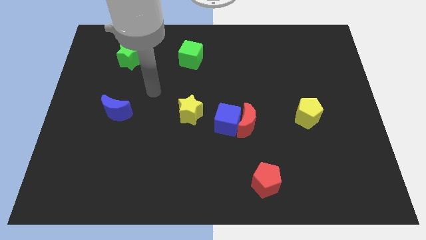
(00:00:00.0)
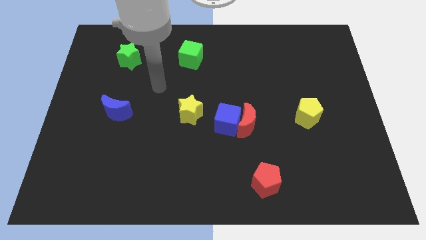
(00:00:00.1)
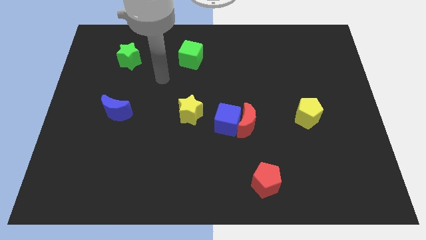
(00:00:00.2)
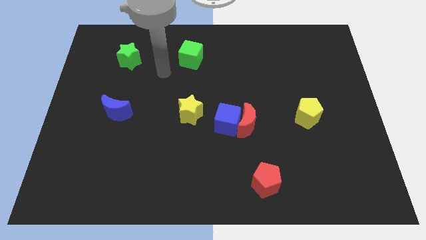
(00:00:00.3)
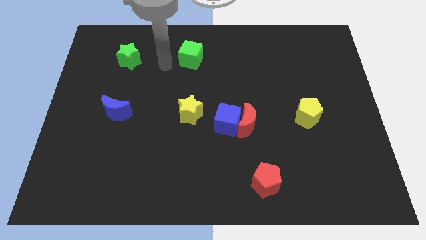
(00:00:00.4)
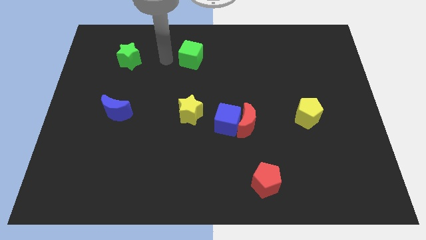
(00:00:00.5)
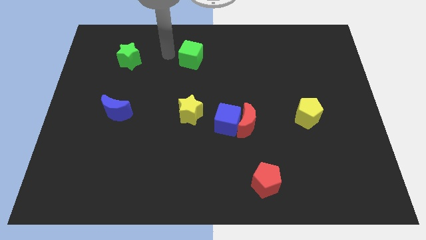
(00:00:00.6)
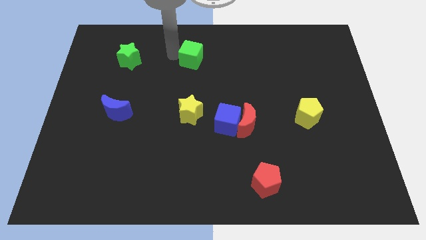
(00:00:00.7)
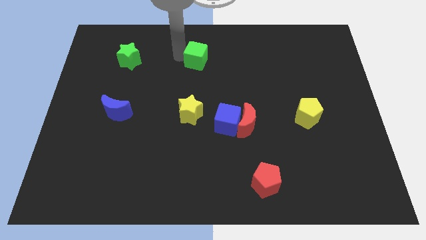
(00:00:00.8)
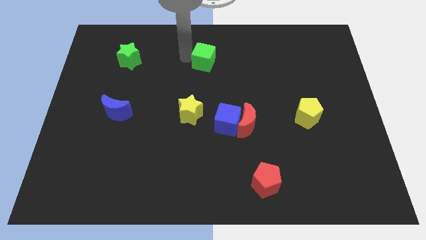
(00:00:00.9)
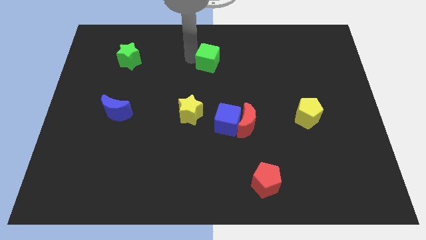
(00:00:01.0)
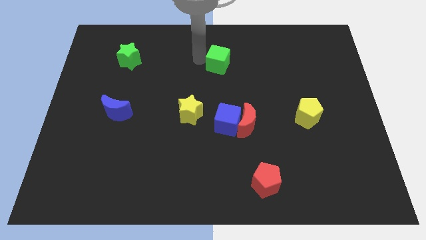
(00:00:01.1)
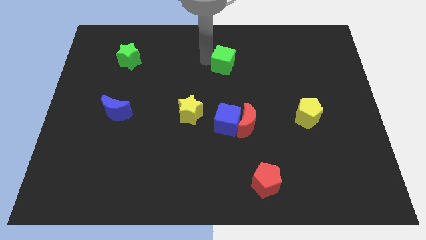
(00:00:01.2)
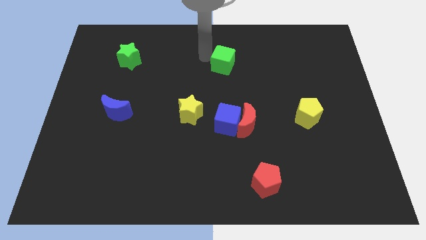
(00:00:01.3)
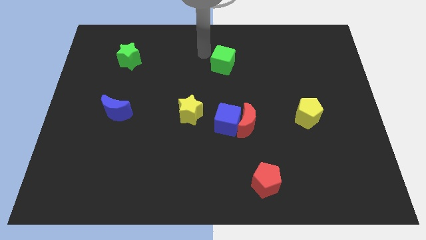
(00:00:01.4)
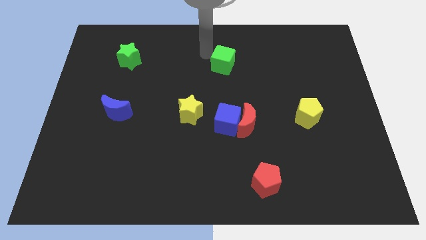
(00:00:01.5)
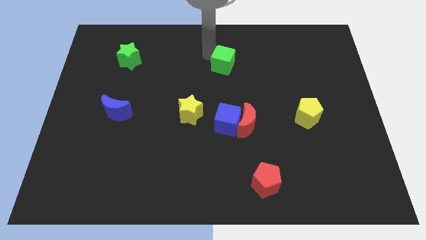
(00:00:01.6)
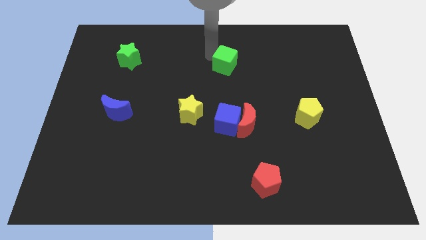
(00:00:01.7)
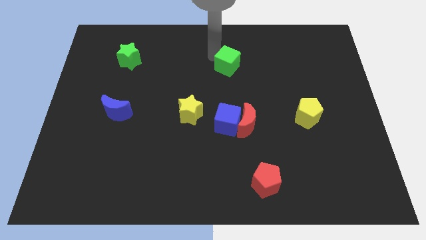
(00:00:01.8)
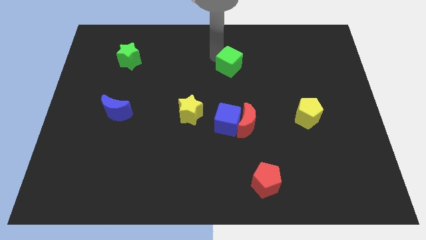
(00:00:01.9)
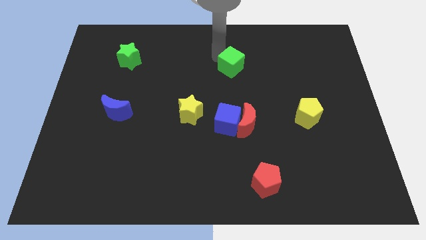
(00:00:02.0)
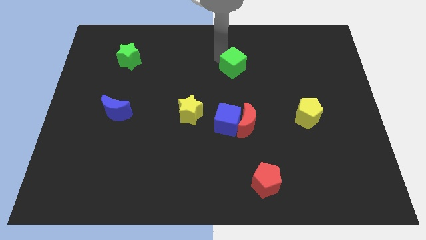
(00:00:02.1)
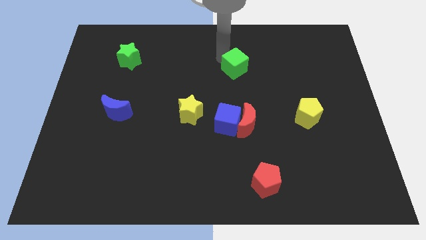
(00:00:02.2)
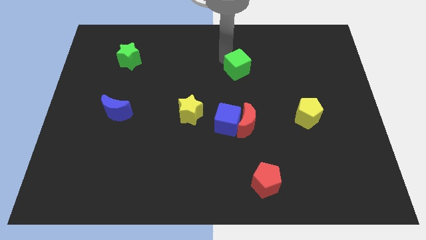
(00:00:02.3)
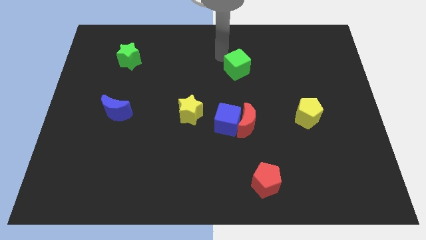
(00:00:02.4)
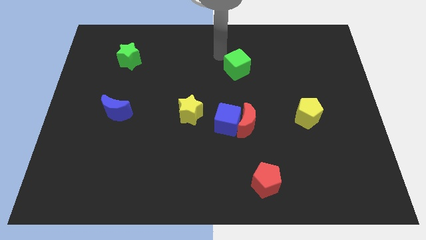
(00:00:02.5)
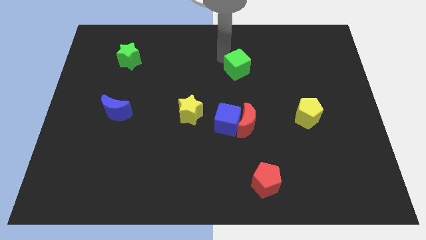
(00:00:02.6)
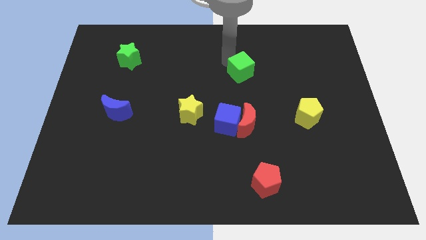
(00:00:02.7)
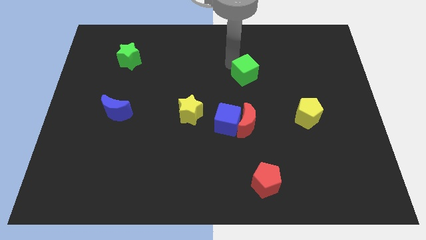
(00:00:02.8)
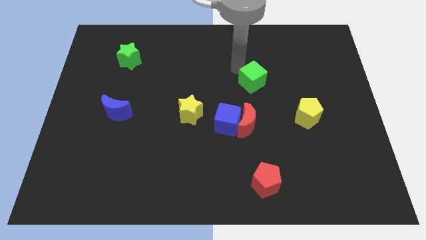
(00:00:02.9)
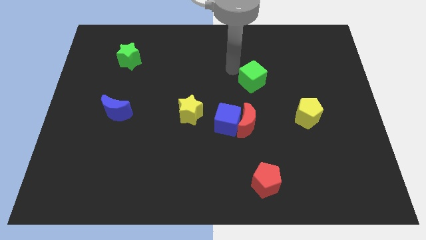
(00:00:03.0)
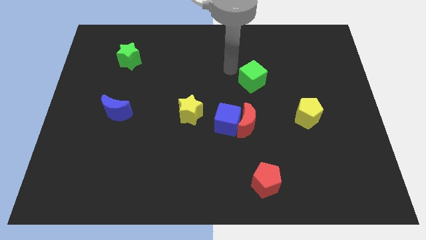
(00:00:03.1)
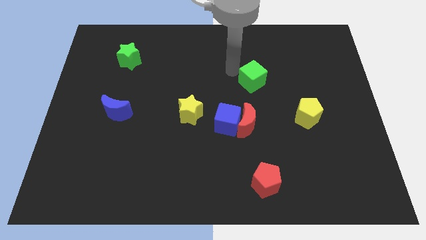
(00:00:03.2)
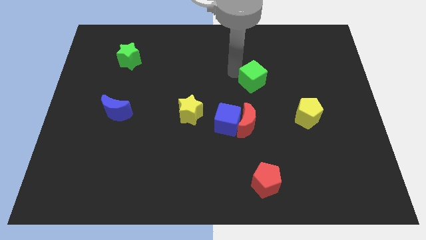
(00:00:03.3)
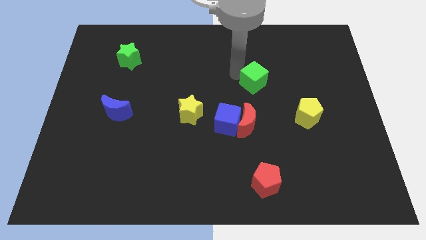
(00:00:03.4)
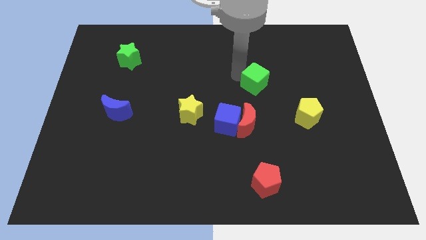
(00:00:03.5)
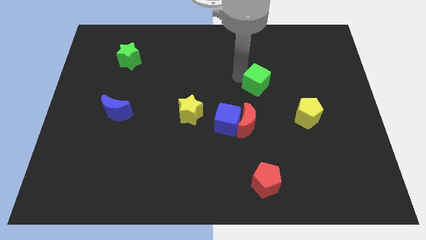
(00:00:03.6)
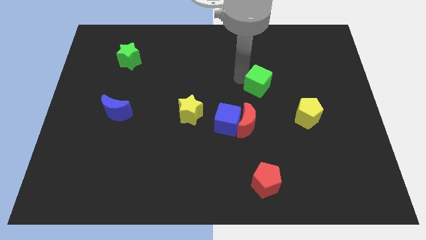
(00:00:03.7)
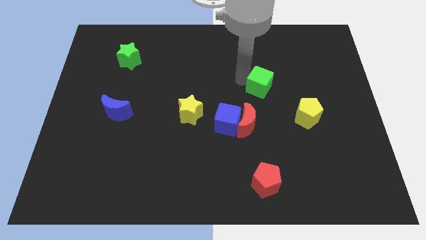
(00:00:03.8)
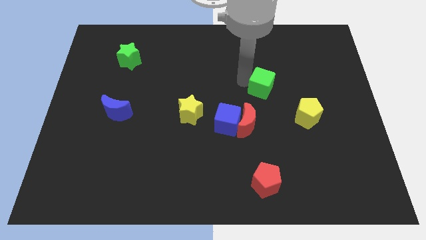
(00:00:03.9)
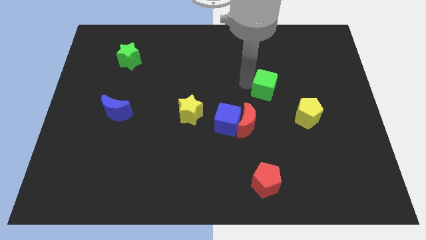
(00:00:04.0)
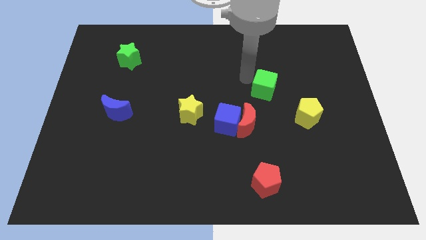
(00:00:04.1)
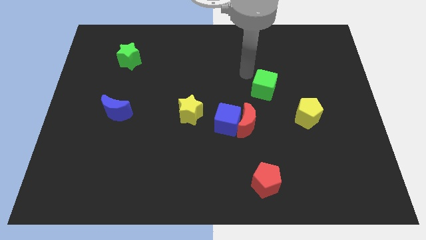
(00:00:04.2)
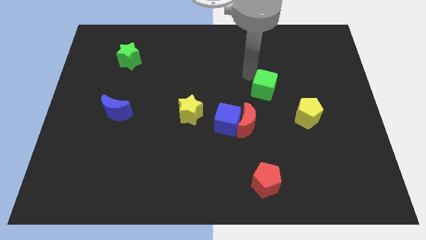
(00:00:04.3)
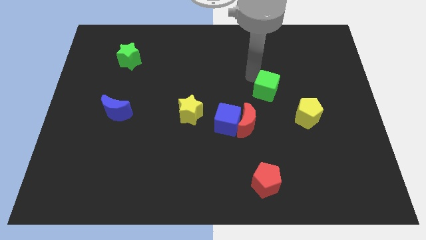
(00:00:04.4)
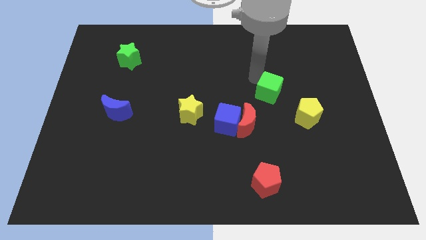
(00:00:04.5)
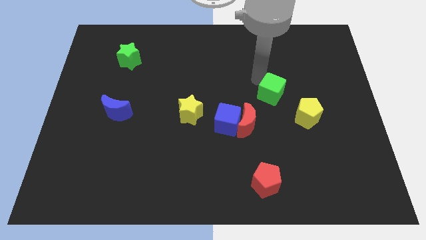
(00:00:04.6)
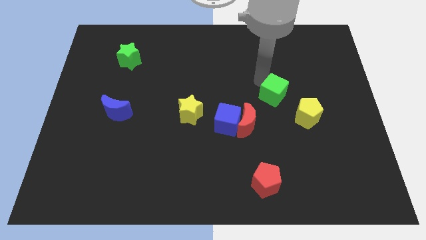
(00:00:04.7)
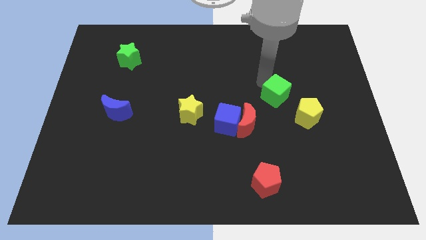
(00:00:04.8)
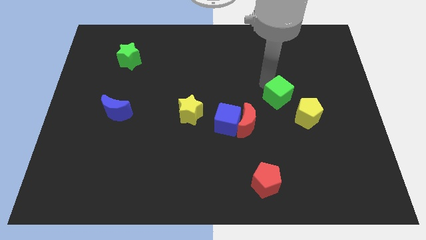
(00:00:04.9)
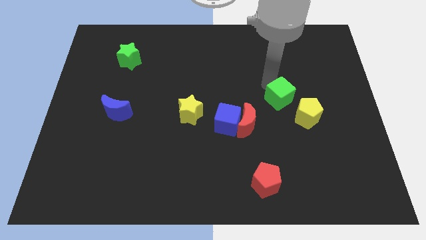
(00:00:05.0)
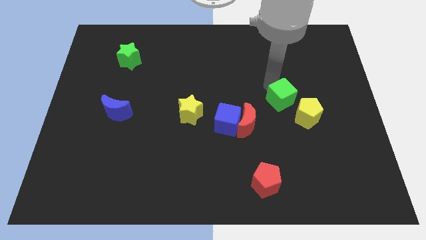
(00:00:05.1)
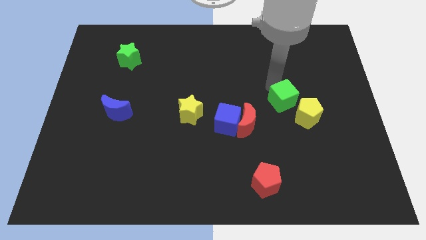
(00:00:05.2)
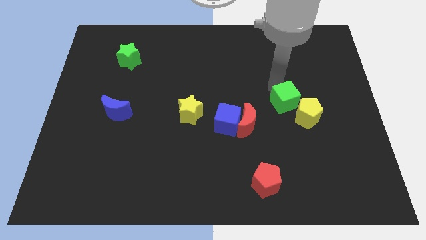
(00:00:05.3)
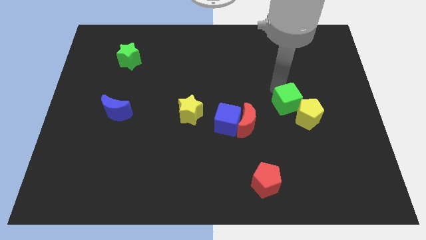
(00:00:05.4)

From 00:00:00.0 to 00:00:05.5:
move the green cube towards the yellow pentagon

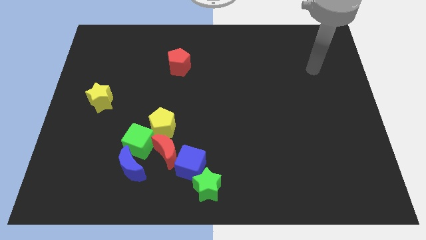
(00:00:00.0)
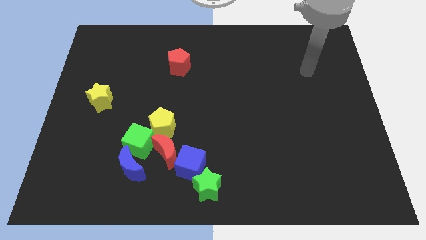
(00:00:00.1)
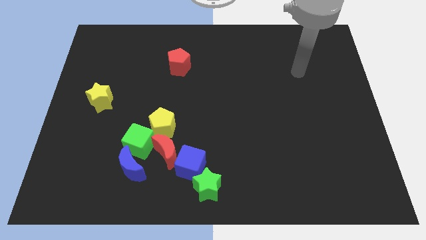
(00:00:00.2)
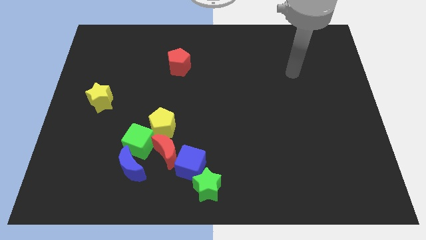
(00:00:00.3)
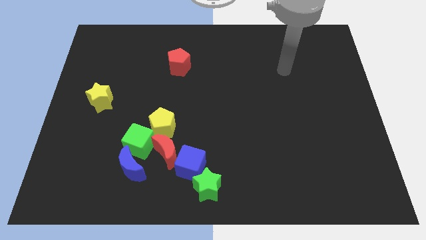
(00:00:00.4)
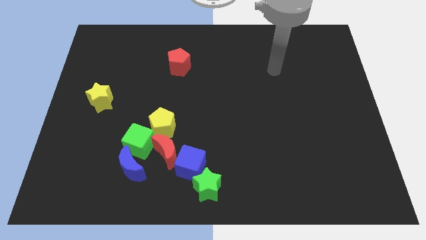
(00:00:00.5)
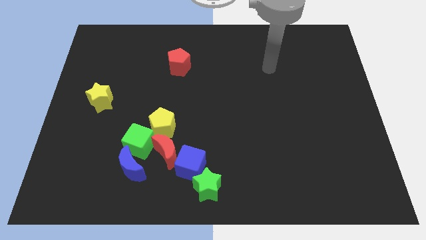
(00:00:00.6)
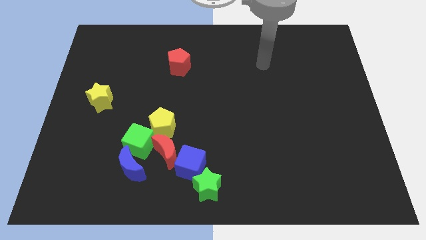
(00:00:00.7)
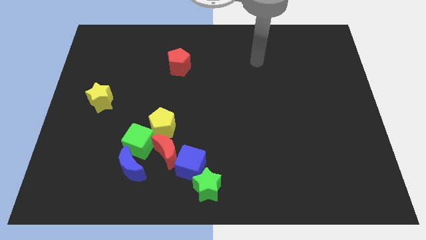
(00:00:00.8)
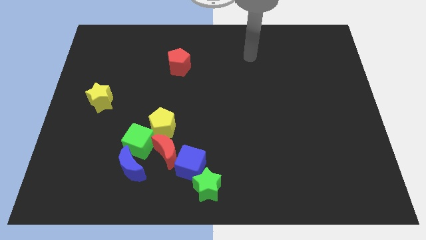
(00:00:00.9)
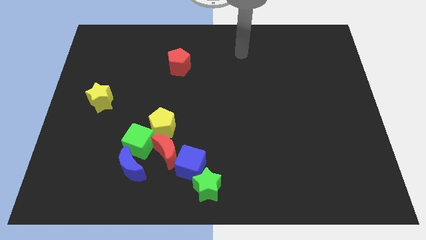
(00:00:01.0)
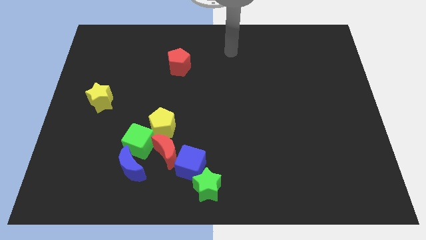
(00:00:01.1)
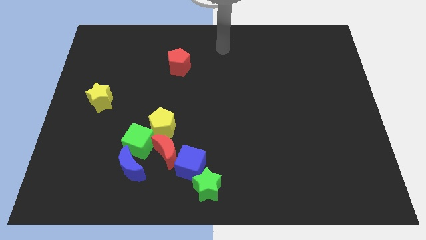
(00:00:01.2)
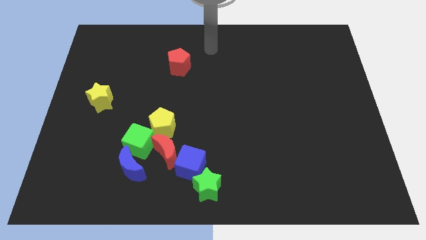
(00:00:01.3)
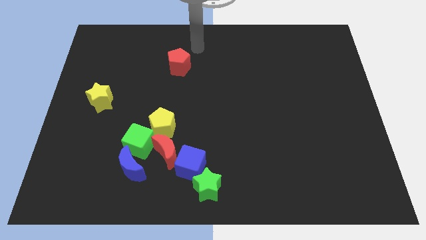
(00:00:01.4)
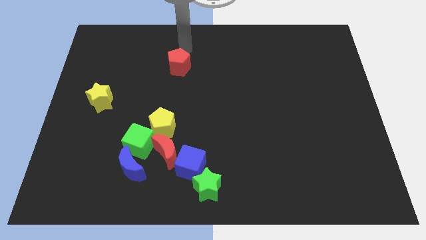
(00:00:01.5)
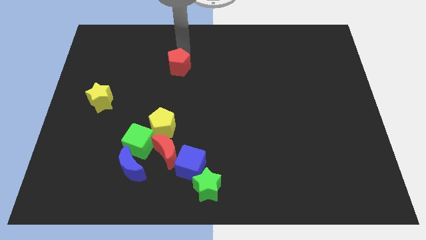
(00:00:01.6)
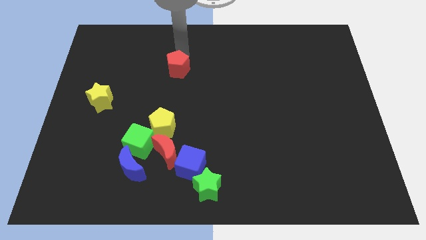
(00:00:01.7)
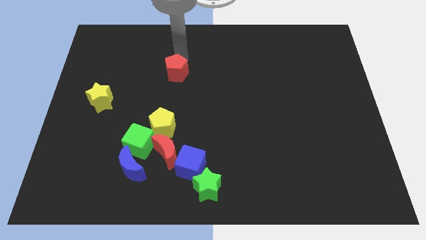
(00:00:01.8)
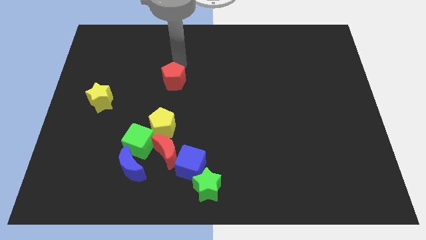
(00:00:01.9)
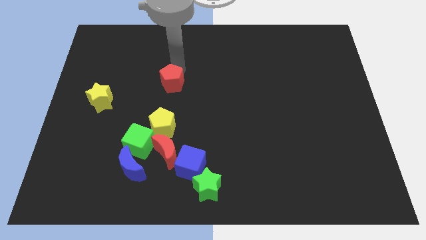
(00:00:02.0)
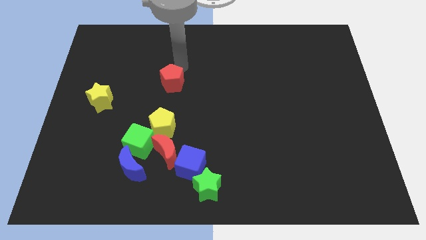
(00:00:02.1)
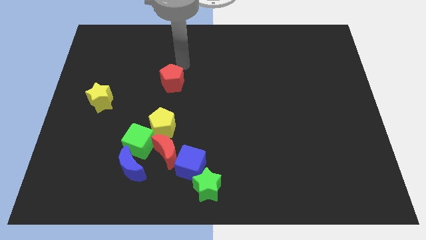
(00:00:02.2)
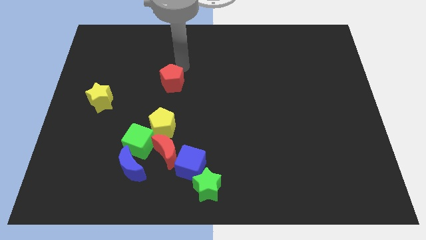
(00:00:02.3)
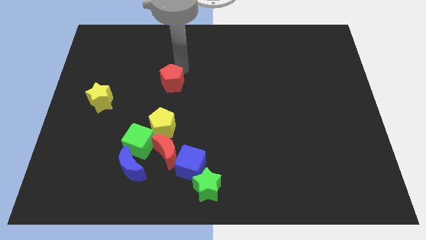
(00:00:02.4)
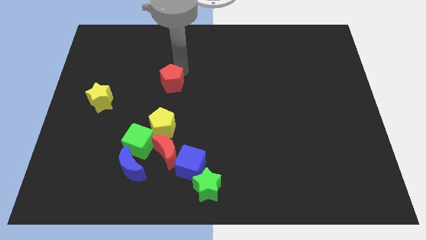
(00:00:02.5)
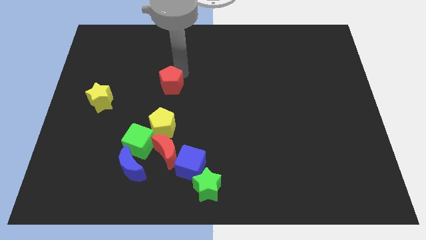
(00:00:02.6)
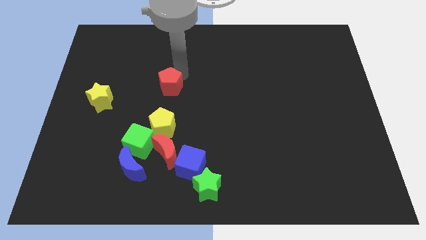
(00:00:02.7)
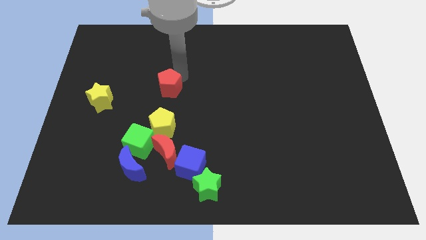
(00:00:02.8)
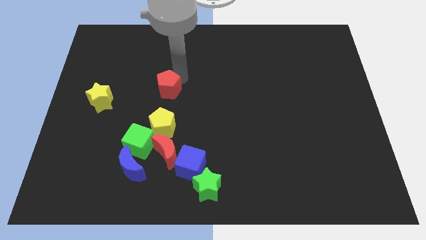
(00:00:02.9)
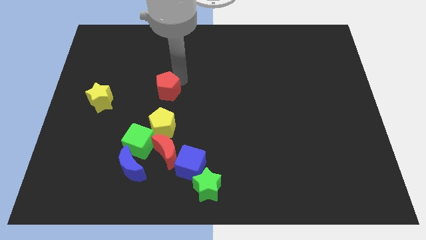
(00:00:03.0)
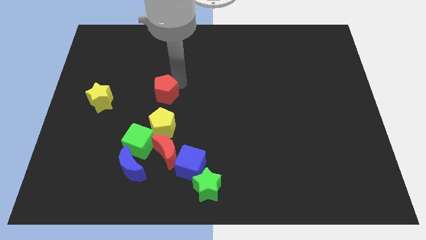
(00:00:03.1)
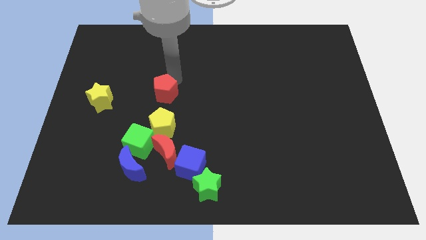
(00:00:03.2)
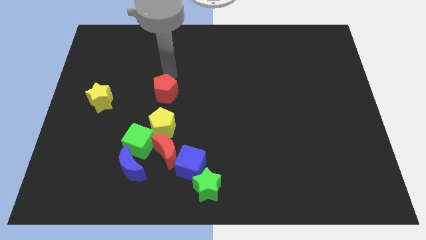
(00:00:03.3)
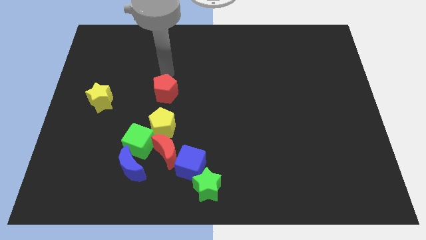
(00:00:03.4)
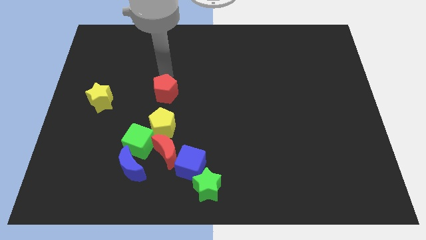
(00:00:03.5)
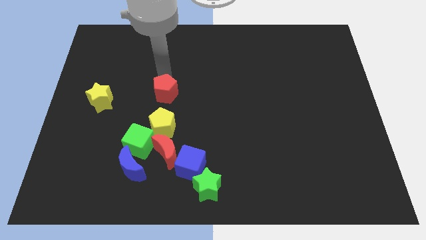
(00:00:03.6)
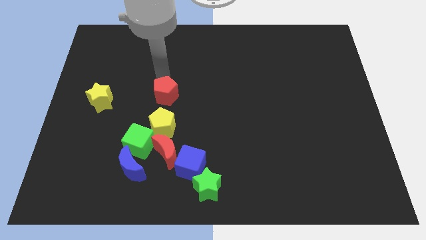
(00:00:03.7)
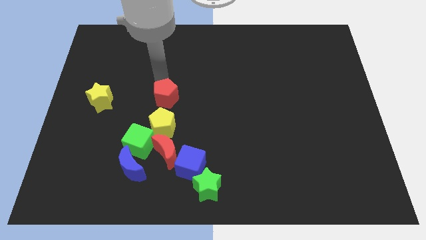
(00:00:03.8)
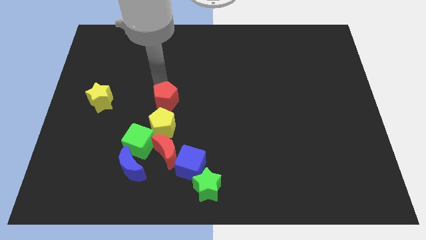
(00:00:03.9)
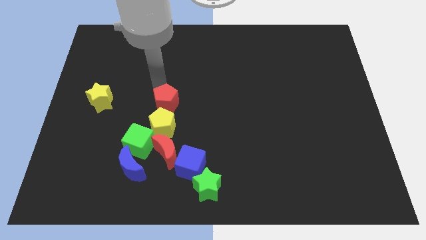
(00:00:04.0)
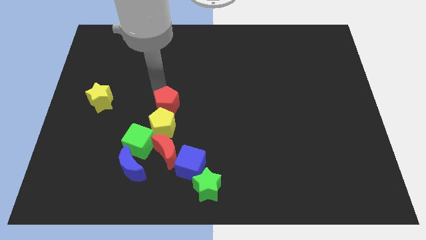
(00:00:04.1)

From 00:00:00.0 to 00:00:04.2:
push the red pentagon close to the yellow pentagon
